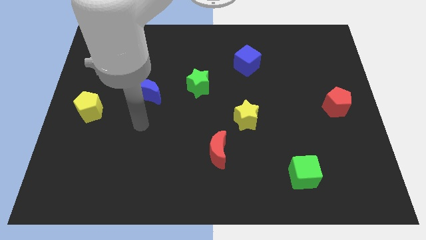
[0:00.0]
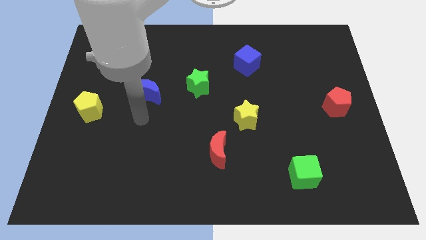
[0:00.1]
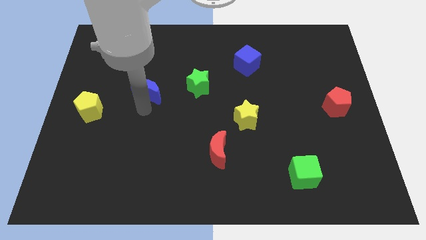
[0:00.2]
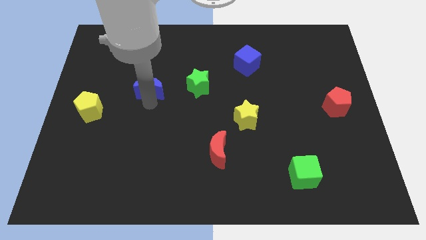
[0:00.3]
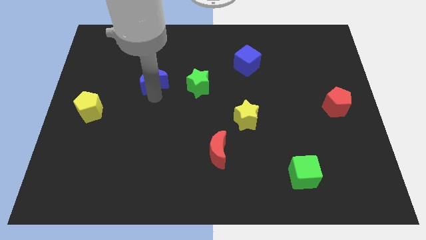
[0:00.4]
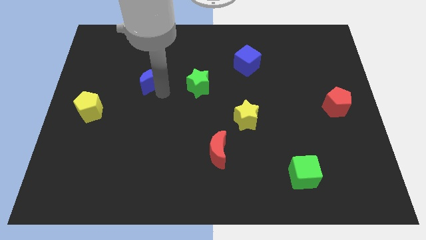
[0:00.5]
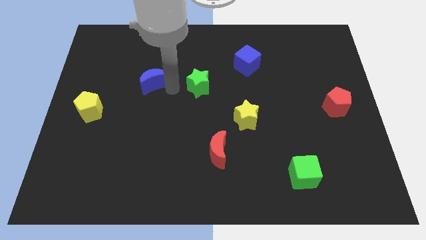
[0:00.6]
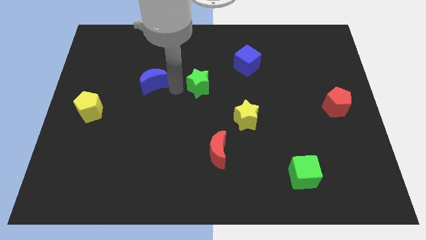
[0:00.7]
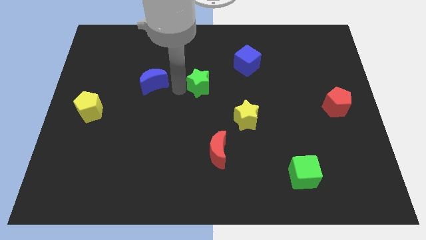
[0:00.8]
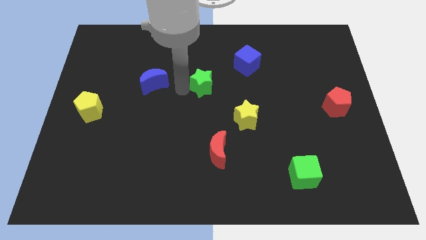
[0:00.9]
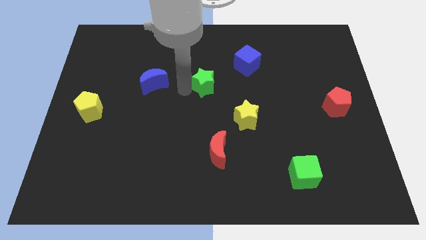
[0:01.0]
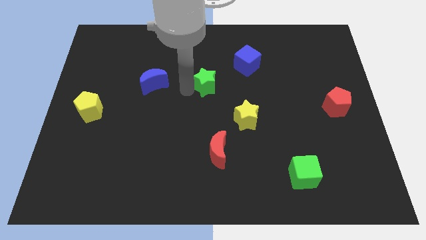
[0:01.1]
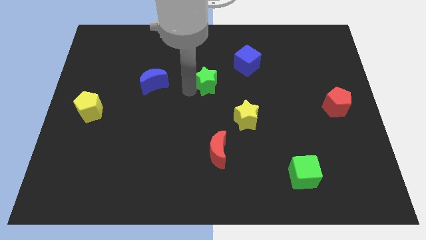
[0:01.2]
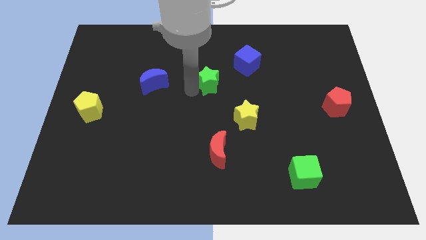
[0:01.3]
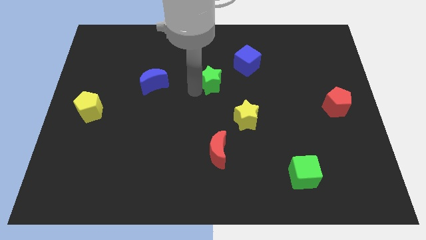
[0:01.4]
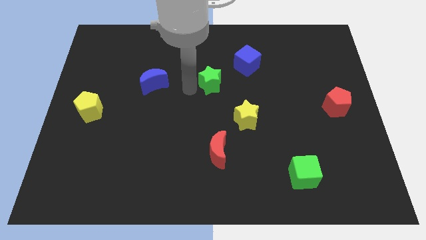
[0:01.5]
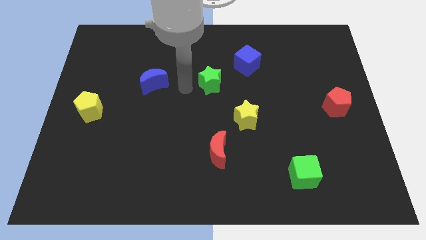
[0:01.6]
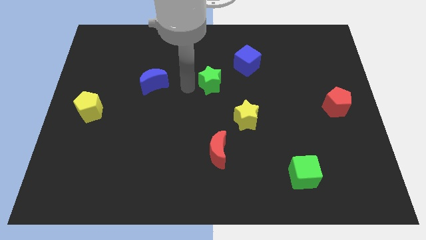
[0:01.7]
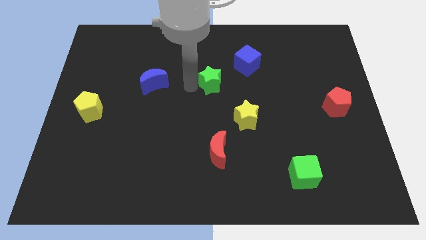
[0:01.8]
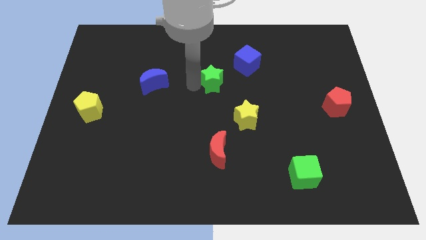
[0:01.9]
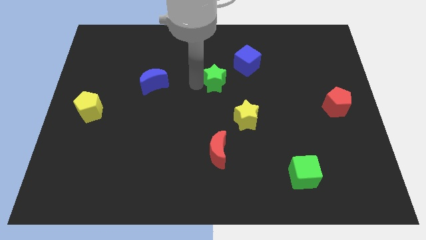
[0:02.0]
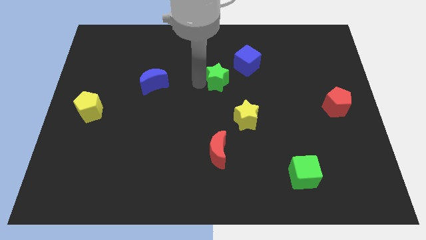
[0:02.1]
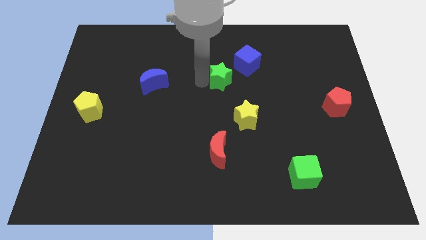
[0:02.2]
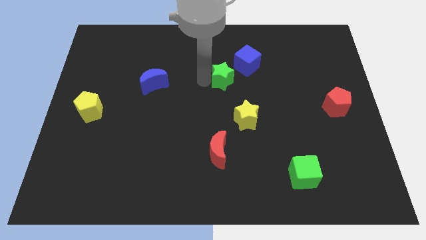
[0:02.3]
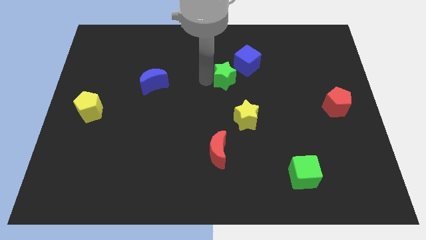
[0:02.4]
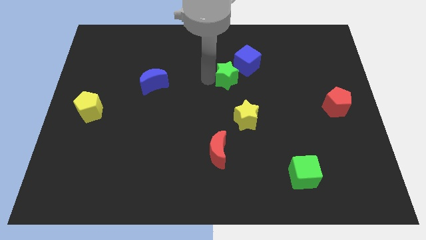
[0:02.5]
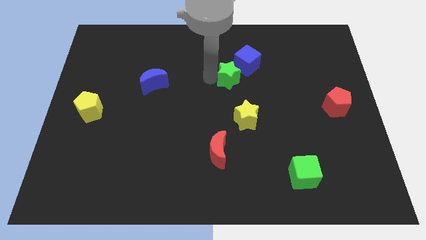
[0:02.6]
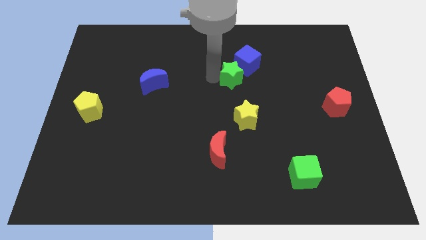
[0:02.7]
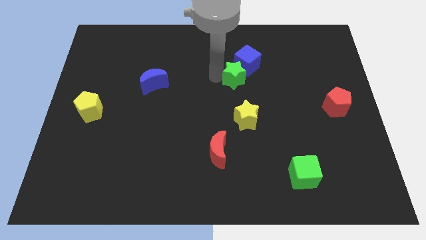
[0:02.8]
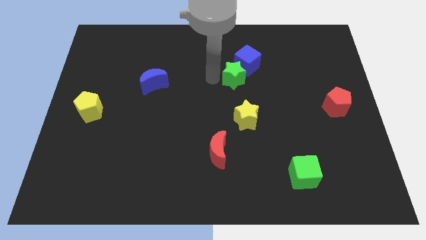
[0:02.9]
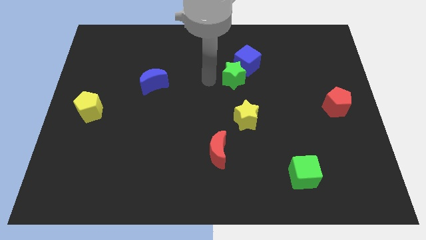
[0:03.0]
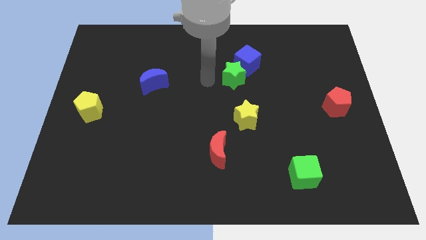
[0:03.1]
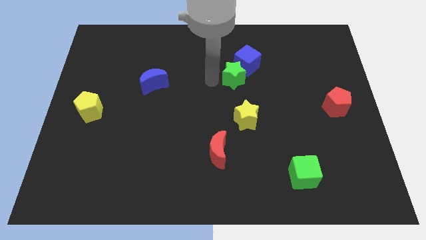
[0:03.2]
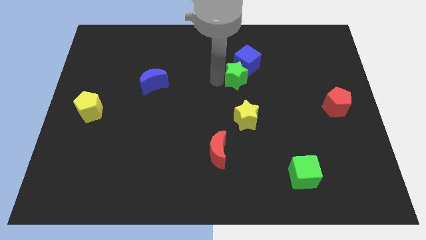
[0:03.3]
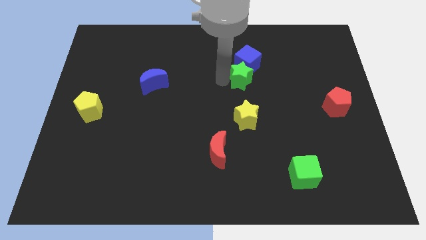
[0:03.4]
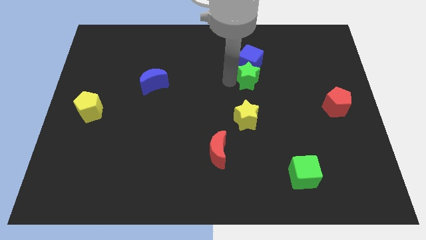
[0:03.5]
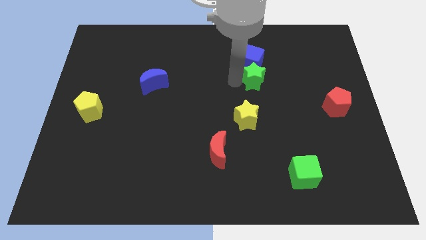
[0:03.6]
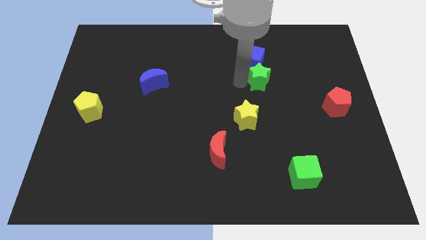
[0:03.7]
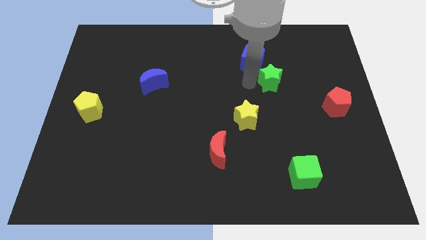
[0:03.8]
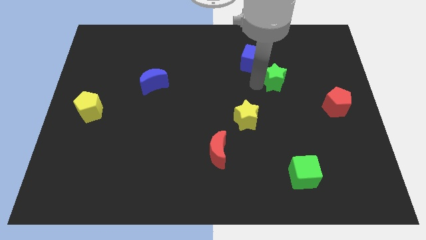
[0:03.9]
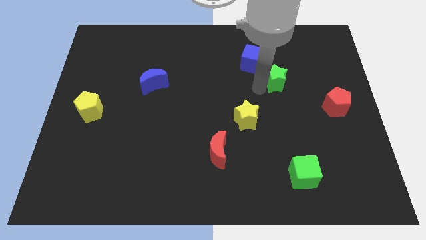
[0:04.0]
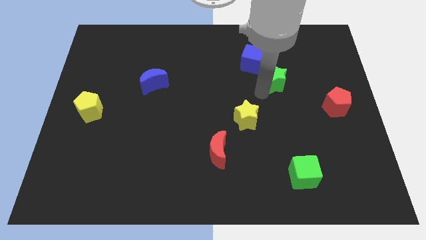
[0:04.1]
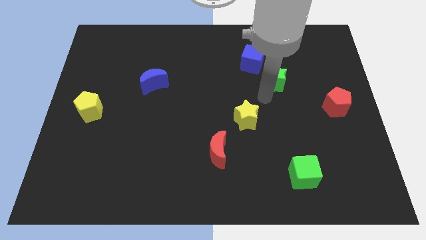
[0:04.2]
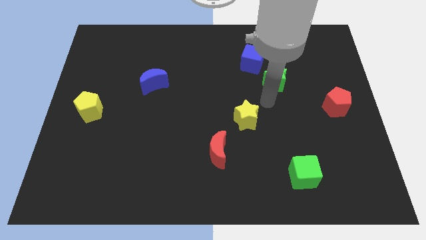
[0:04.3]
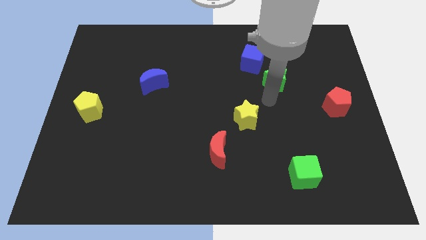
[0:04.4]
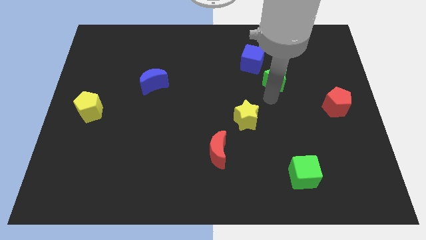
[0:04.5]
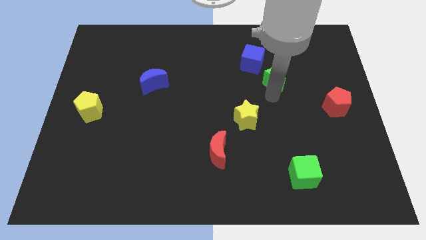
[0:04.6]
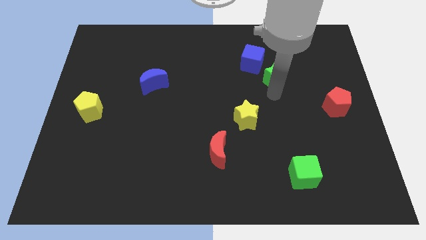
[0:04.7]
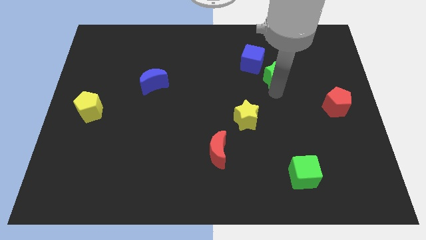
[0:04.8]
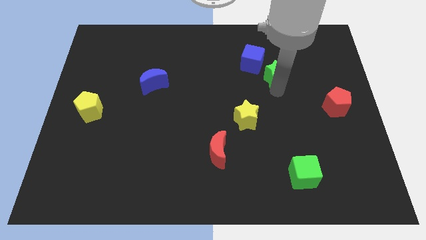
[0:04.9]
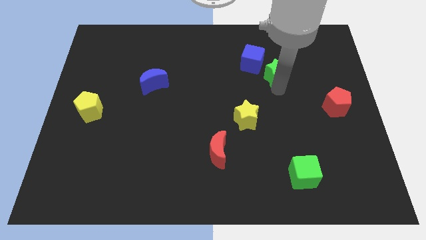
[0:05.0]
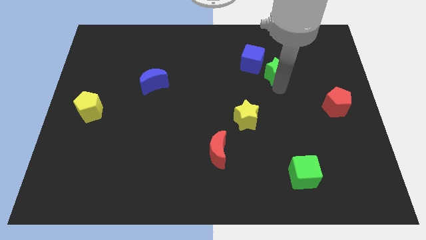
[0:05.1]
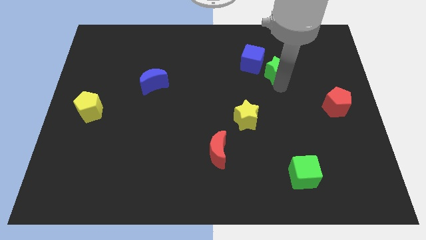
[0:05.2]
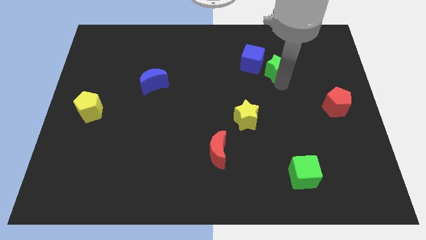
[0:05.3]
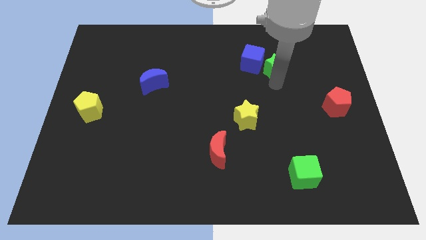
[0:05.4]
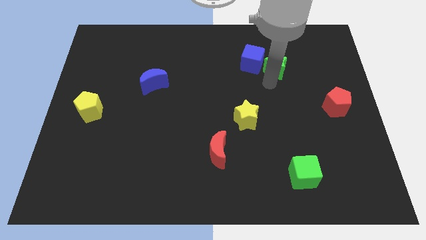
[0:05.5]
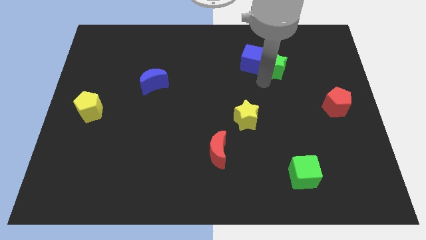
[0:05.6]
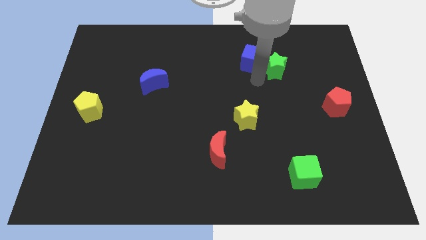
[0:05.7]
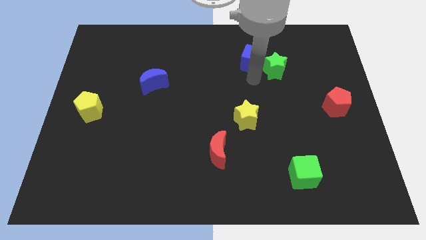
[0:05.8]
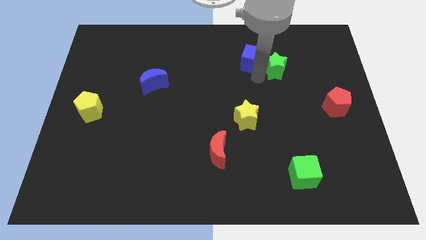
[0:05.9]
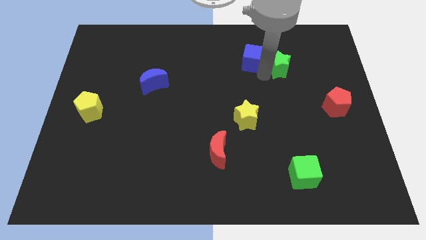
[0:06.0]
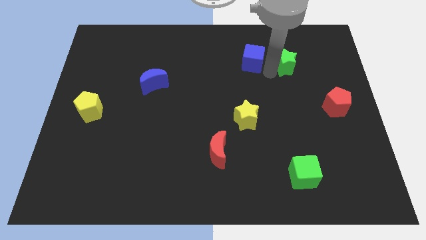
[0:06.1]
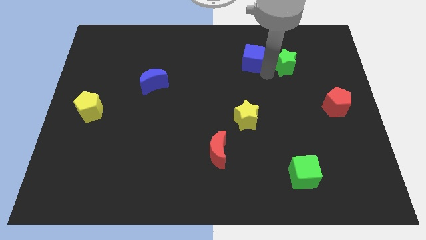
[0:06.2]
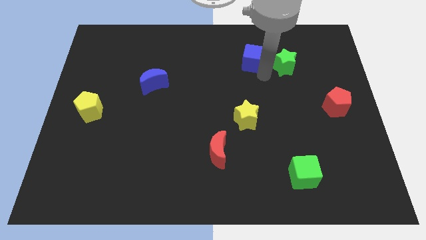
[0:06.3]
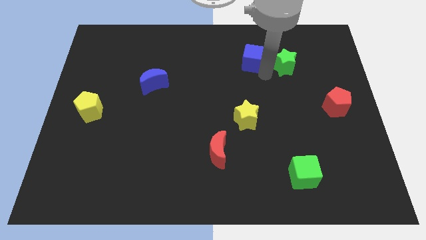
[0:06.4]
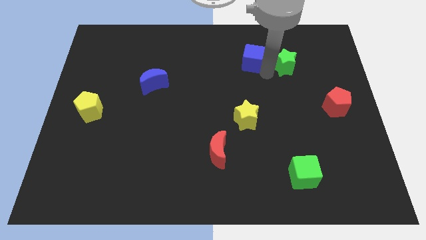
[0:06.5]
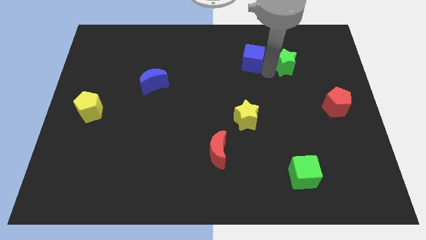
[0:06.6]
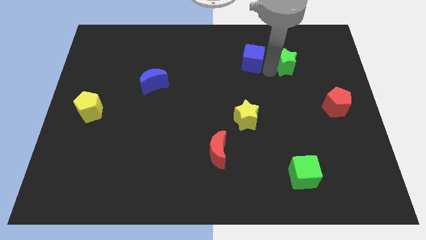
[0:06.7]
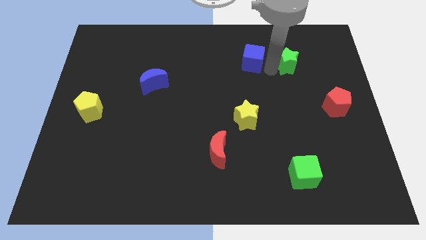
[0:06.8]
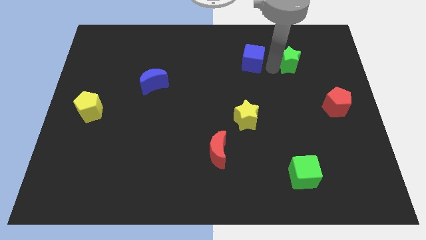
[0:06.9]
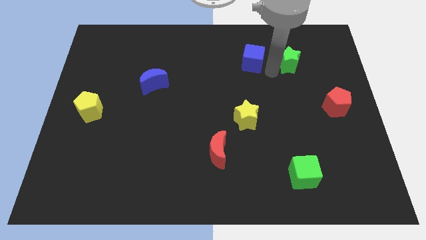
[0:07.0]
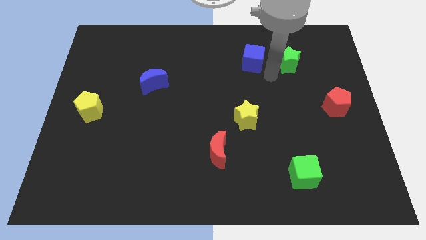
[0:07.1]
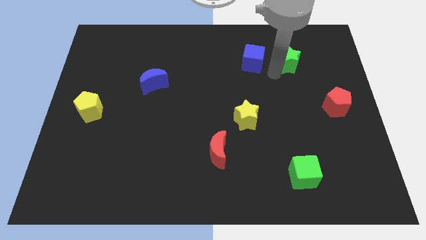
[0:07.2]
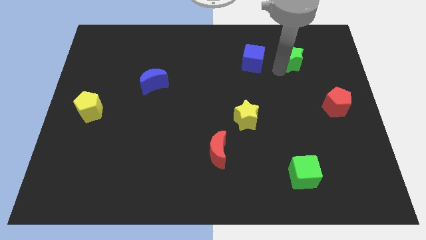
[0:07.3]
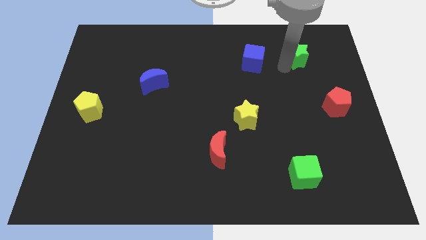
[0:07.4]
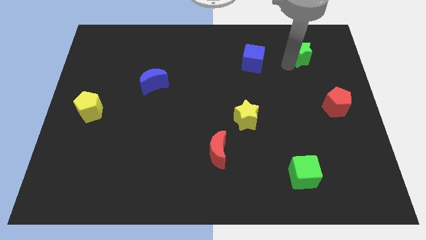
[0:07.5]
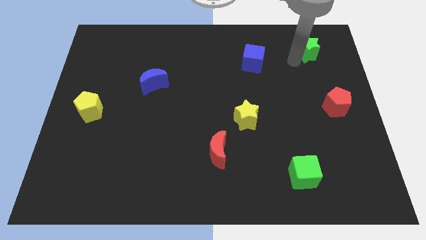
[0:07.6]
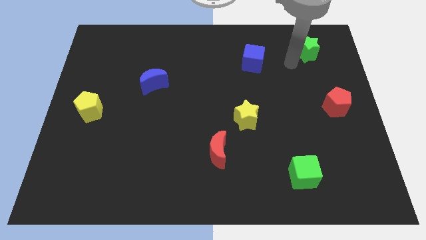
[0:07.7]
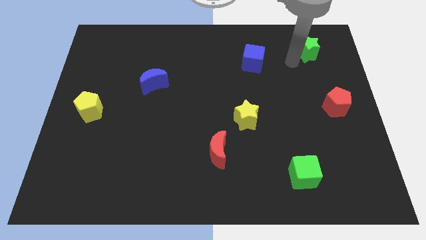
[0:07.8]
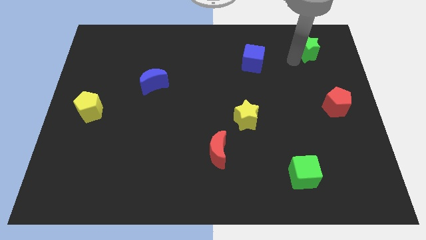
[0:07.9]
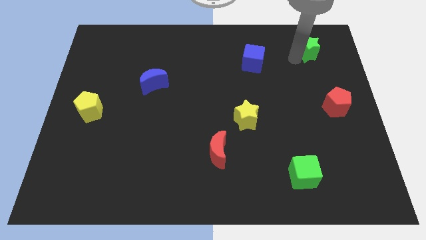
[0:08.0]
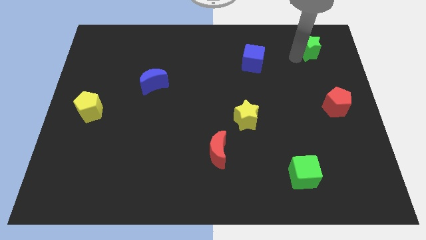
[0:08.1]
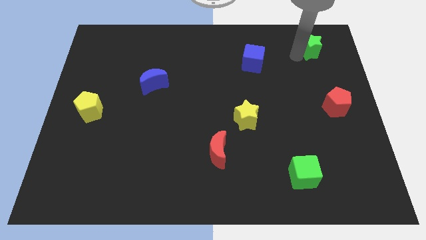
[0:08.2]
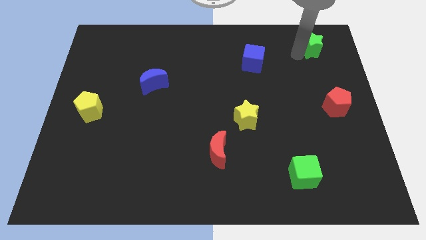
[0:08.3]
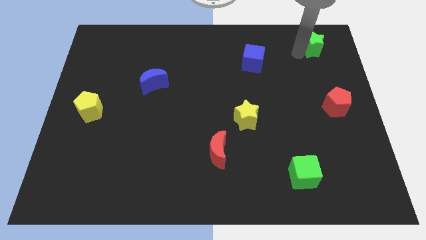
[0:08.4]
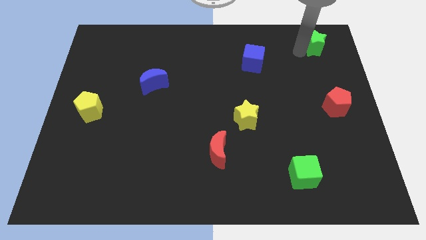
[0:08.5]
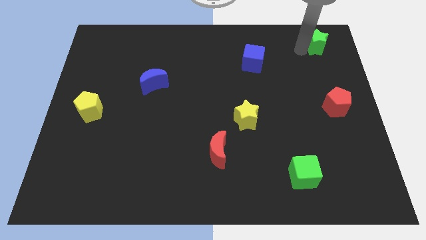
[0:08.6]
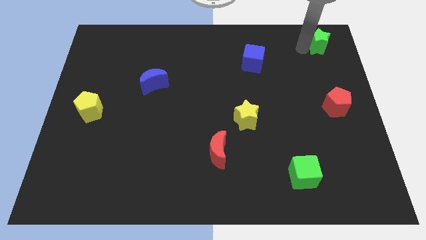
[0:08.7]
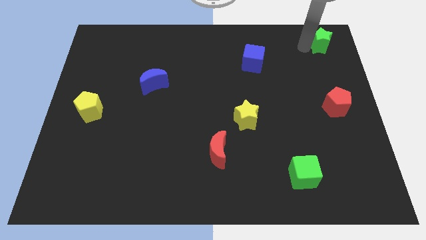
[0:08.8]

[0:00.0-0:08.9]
move the green star to the top right of the board
